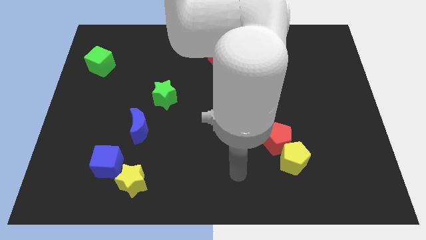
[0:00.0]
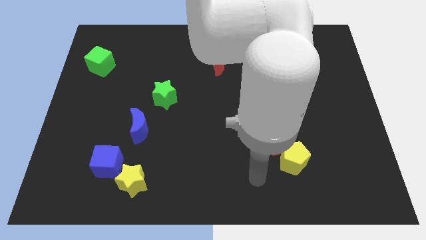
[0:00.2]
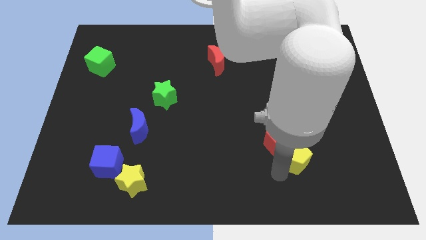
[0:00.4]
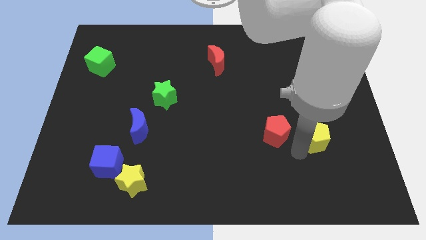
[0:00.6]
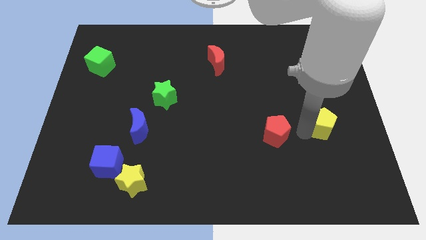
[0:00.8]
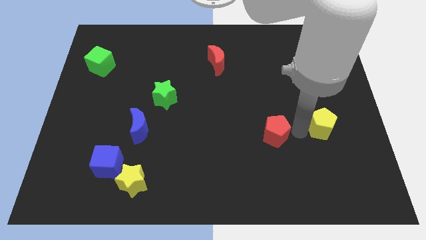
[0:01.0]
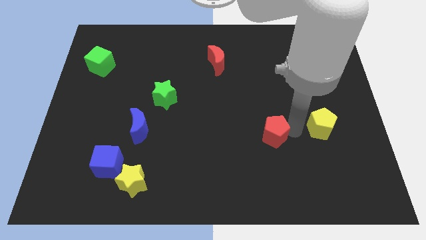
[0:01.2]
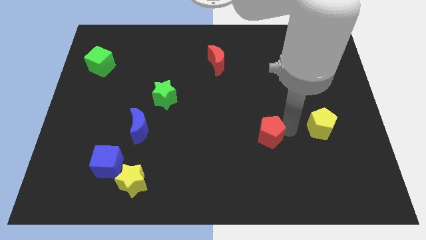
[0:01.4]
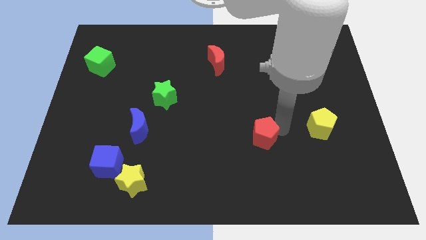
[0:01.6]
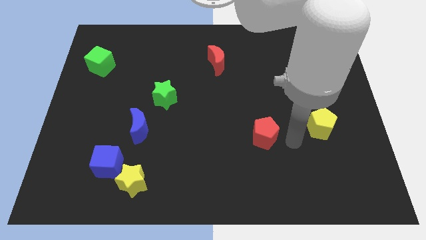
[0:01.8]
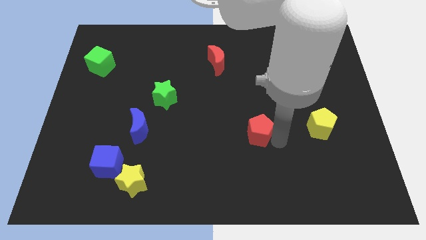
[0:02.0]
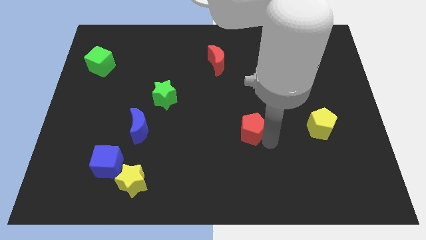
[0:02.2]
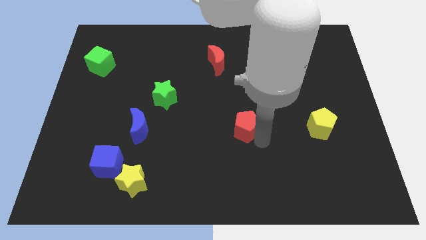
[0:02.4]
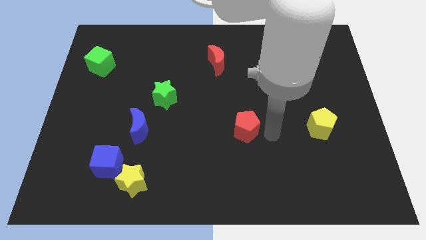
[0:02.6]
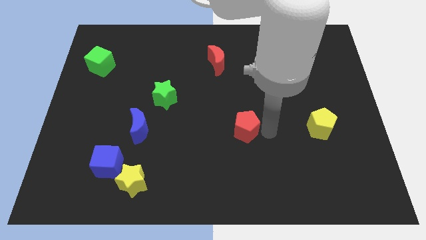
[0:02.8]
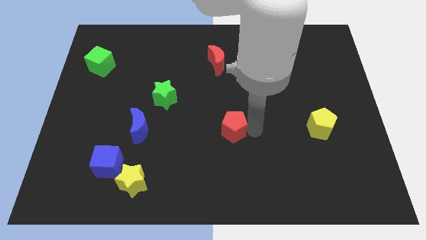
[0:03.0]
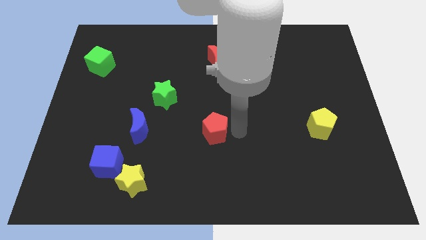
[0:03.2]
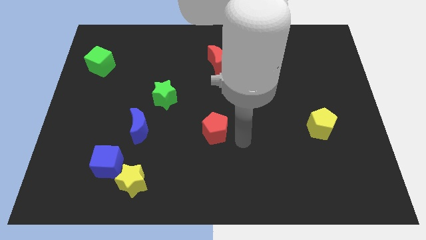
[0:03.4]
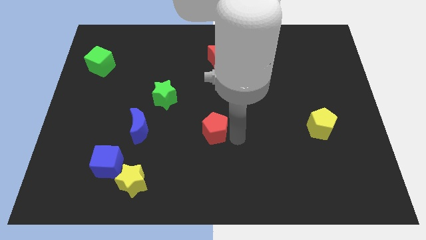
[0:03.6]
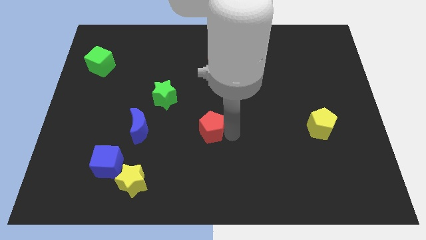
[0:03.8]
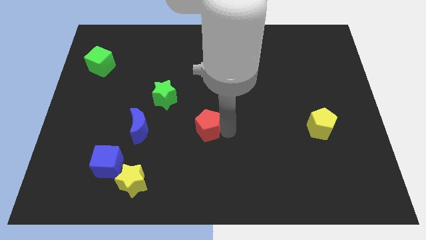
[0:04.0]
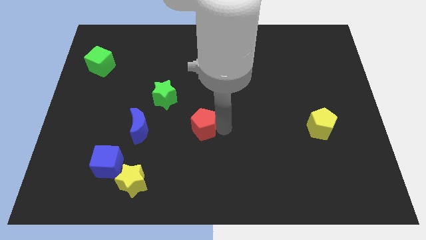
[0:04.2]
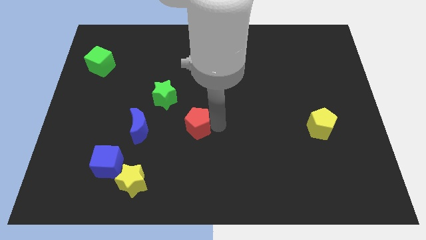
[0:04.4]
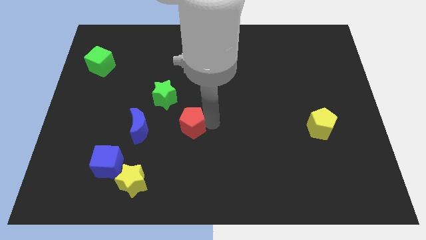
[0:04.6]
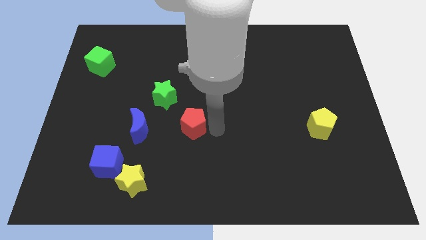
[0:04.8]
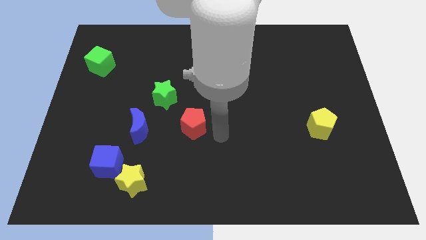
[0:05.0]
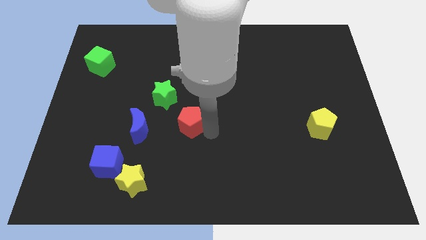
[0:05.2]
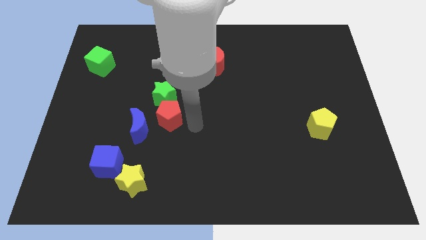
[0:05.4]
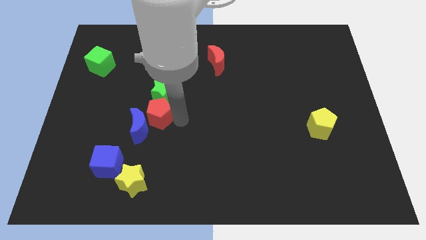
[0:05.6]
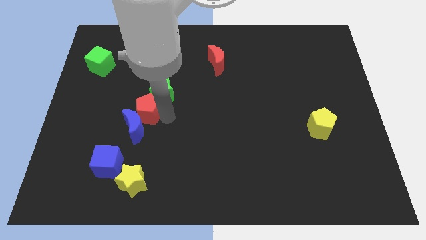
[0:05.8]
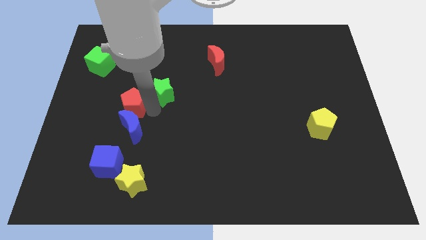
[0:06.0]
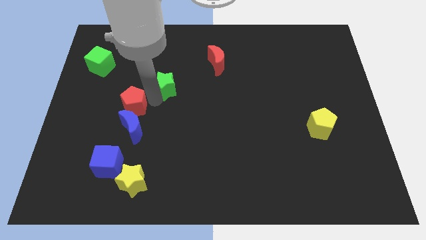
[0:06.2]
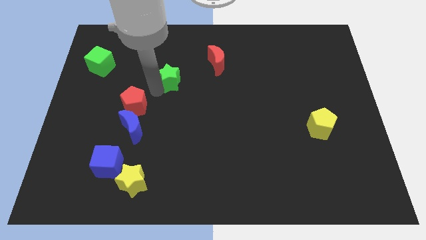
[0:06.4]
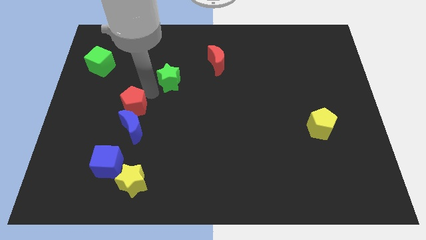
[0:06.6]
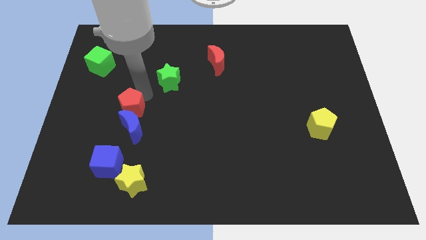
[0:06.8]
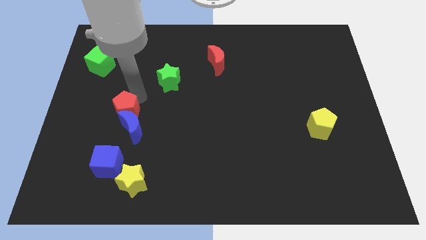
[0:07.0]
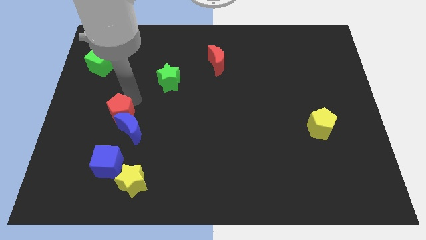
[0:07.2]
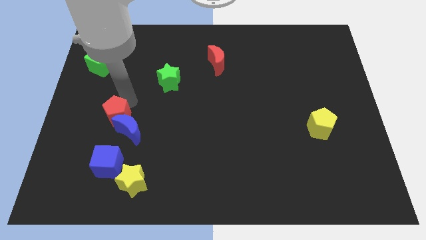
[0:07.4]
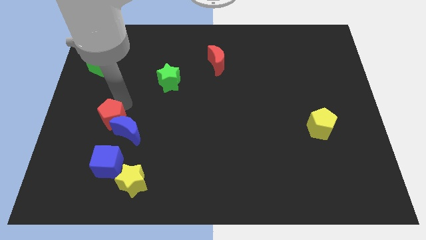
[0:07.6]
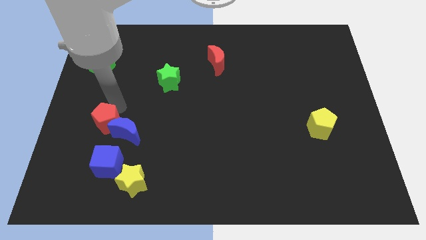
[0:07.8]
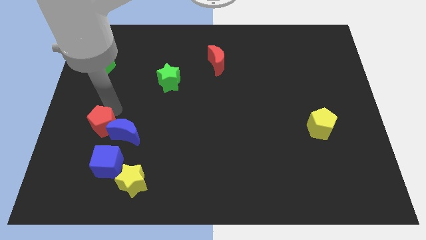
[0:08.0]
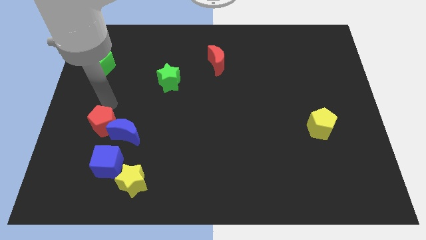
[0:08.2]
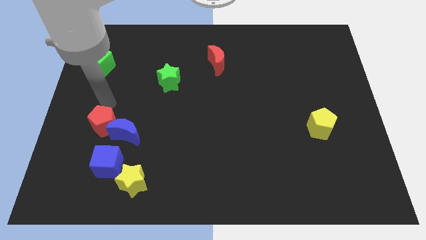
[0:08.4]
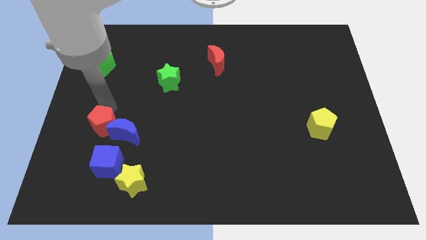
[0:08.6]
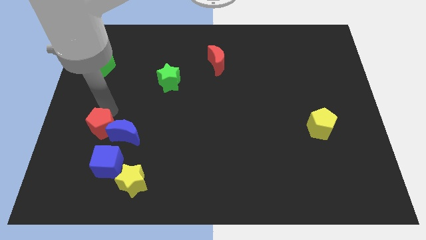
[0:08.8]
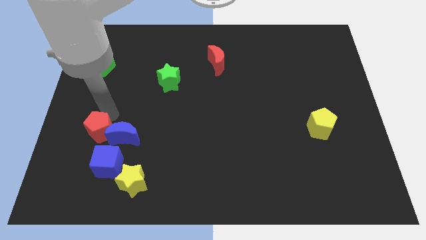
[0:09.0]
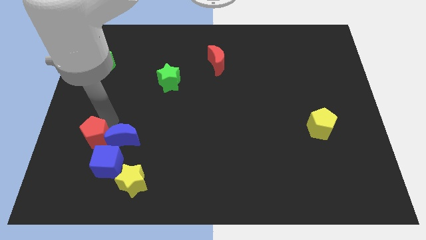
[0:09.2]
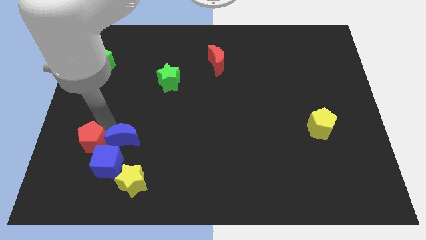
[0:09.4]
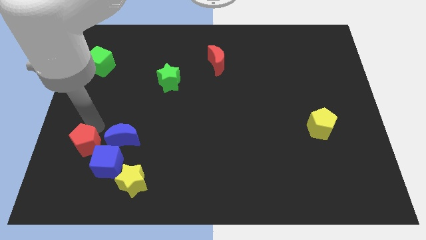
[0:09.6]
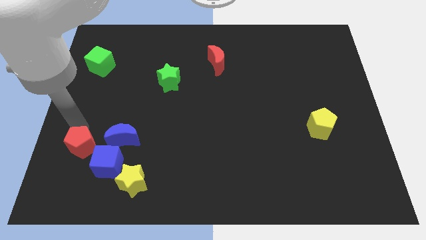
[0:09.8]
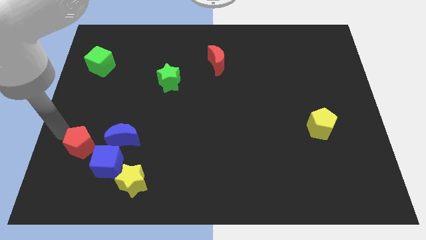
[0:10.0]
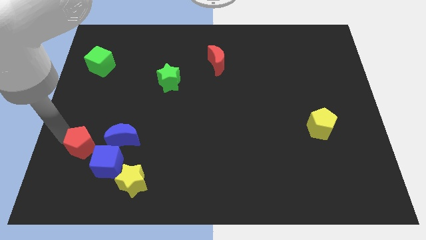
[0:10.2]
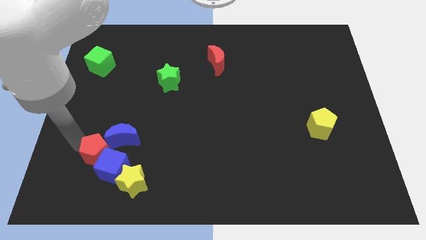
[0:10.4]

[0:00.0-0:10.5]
push the red pentagon to the top left side of the yellow star

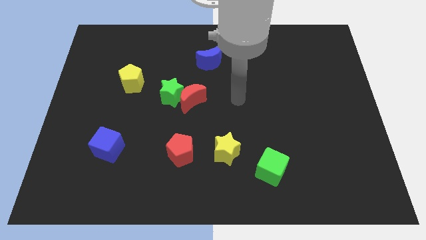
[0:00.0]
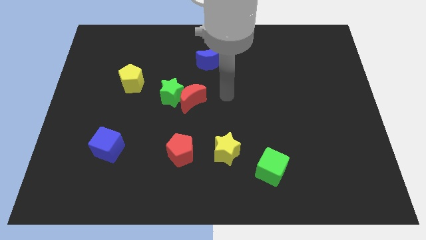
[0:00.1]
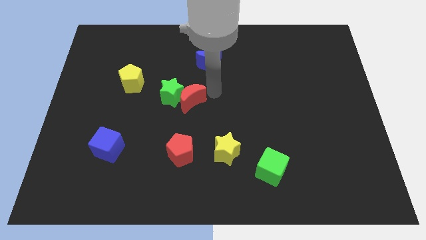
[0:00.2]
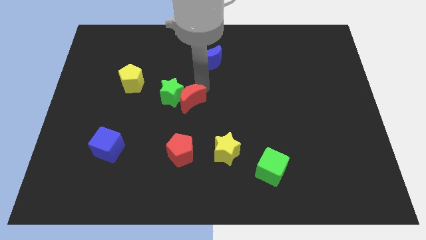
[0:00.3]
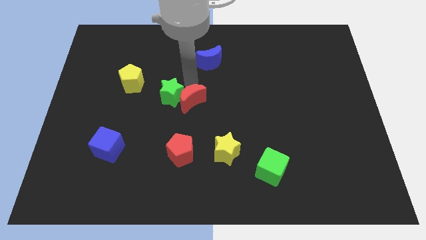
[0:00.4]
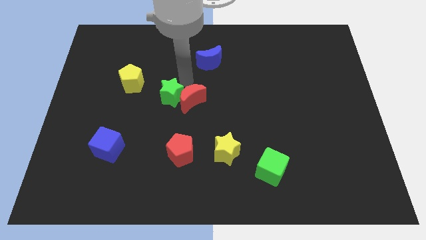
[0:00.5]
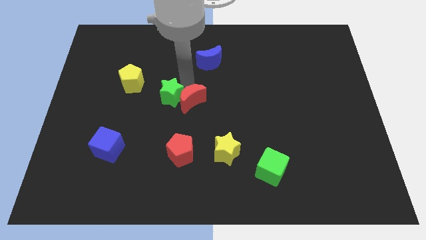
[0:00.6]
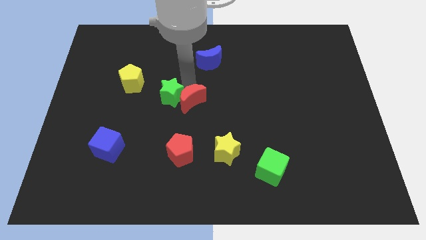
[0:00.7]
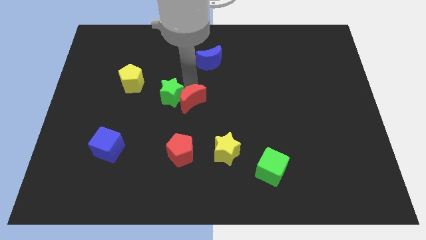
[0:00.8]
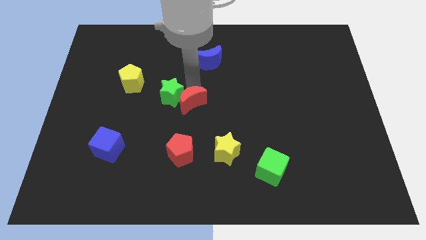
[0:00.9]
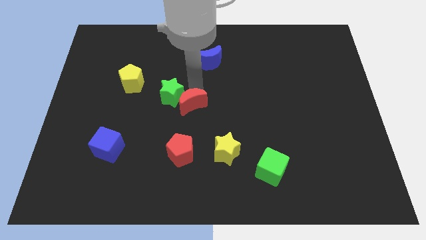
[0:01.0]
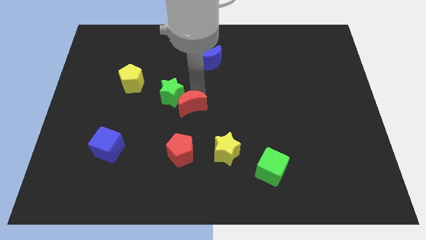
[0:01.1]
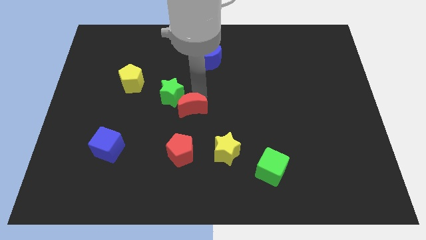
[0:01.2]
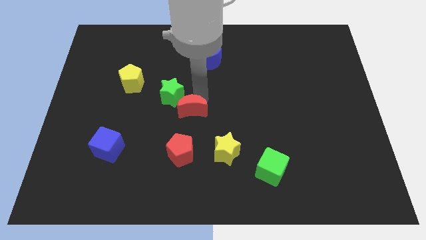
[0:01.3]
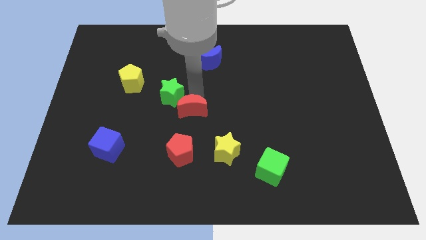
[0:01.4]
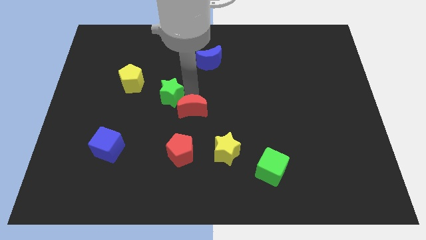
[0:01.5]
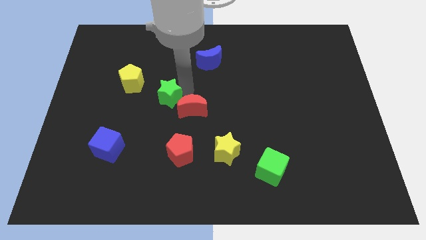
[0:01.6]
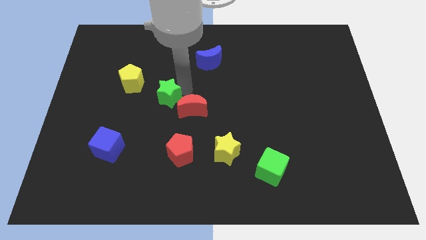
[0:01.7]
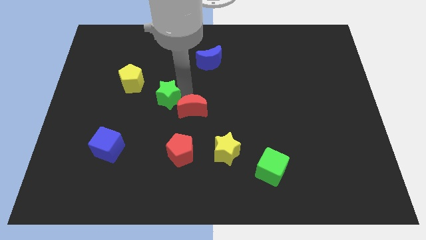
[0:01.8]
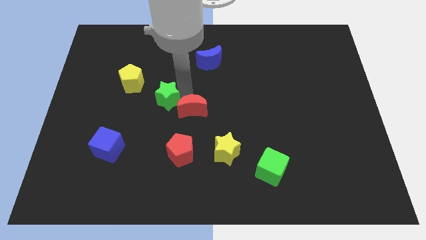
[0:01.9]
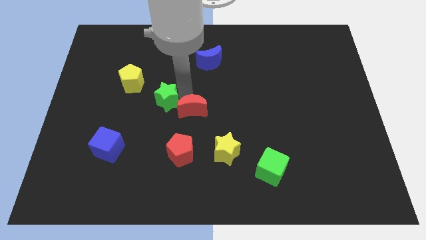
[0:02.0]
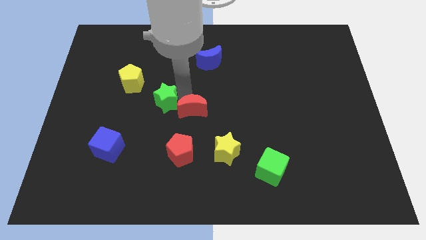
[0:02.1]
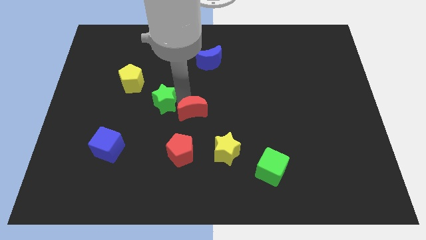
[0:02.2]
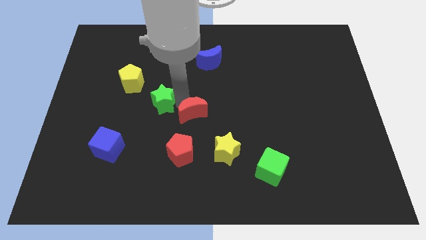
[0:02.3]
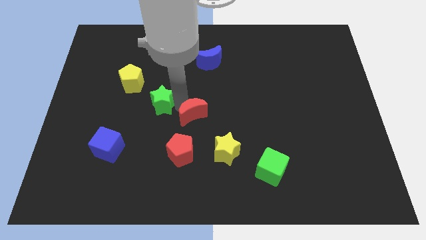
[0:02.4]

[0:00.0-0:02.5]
push the red moon diagonally up and to the left of the yellow star
